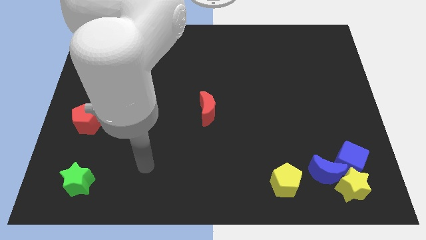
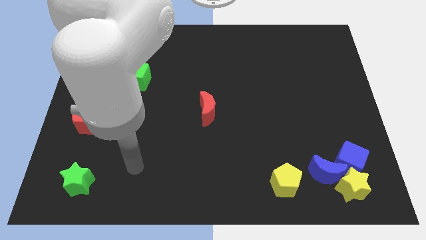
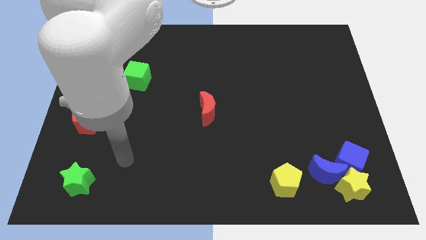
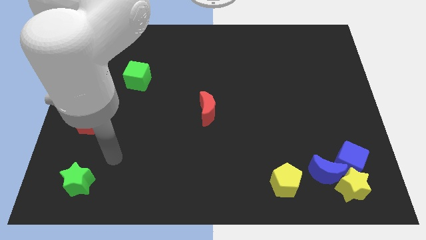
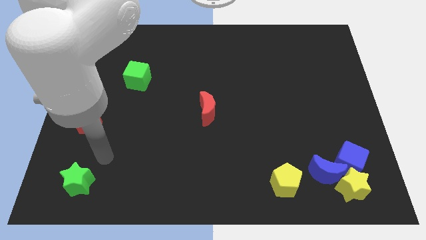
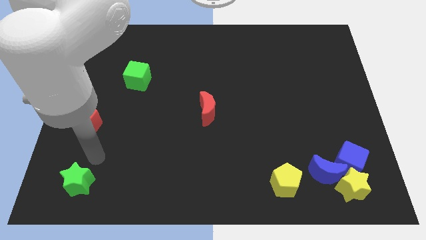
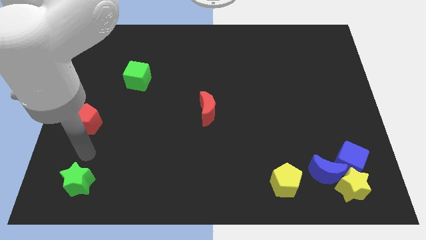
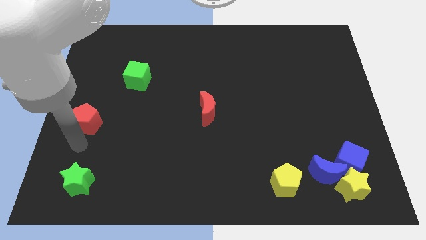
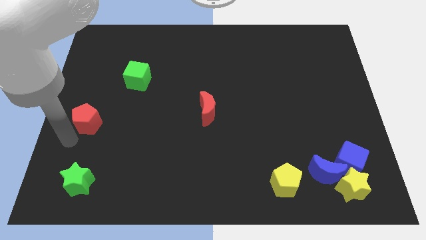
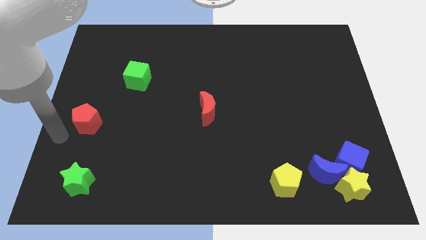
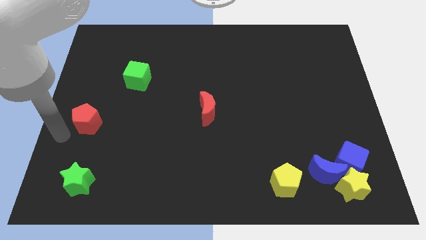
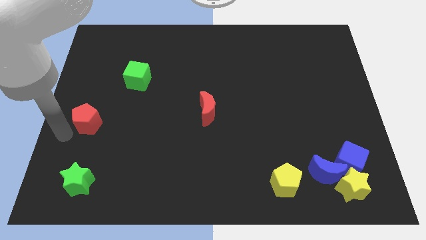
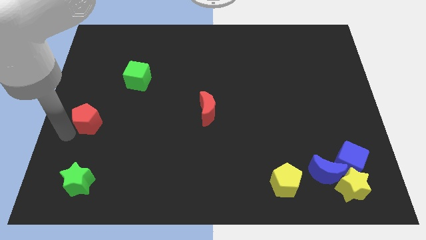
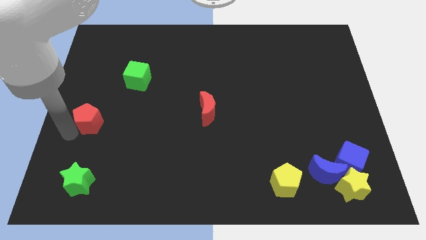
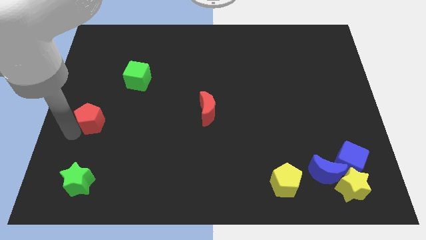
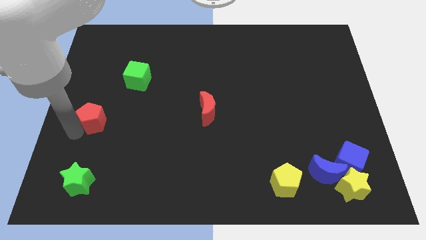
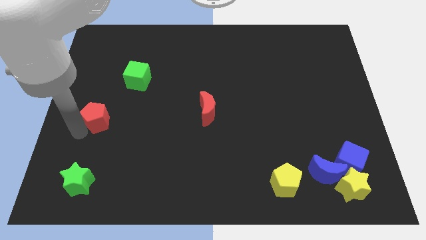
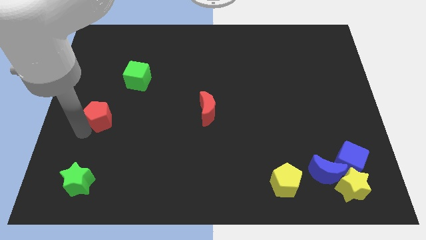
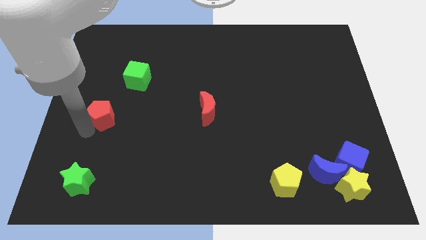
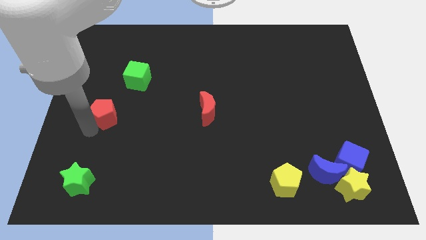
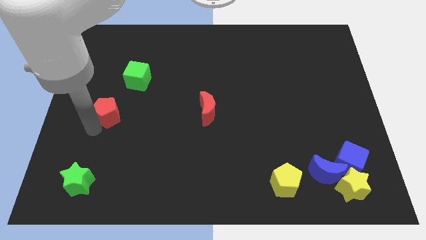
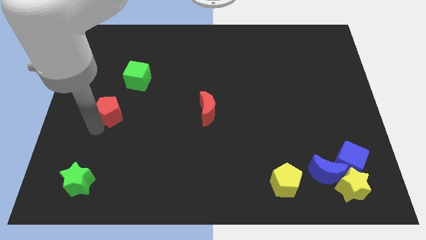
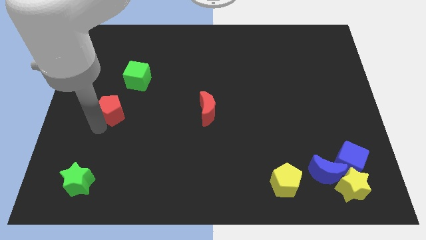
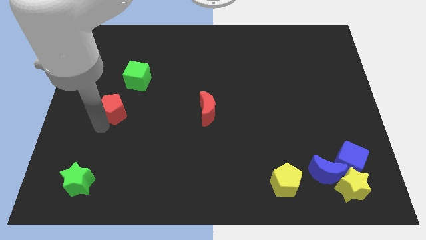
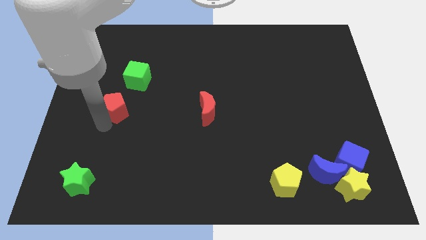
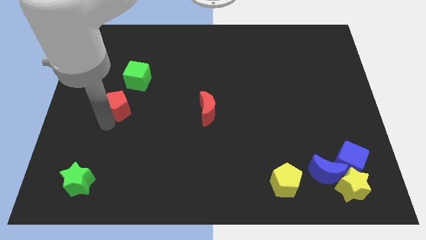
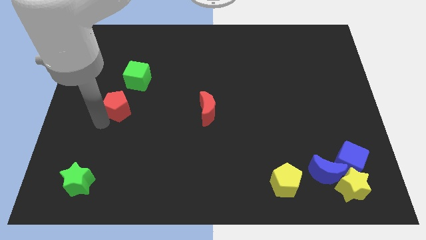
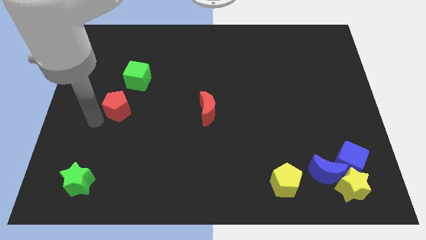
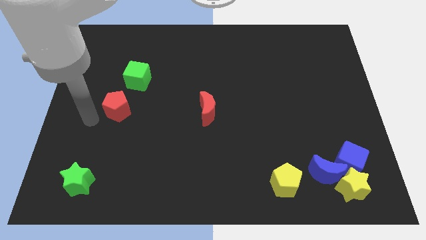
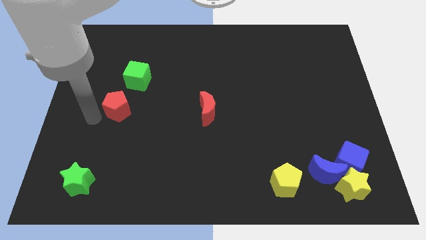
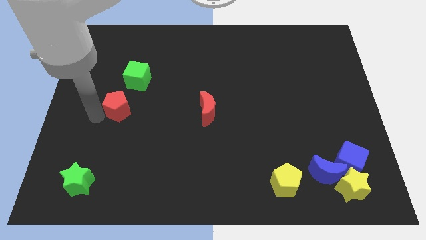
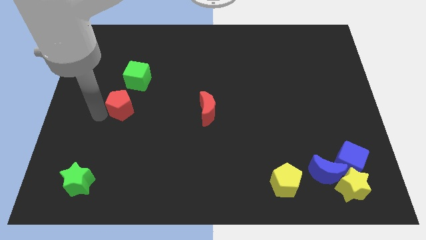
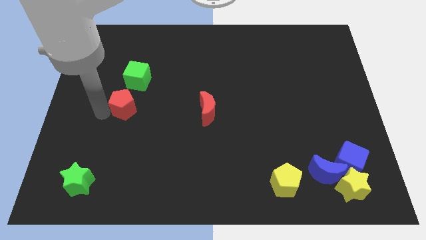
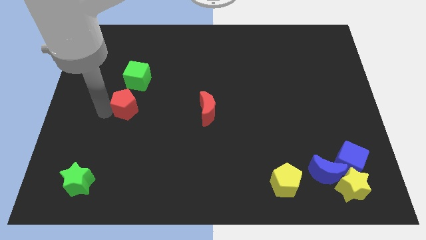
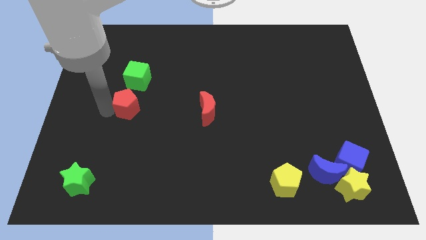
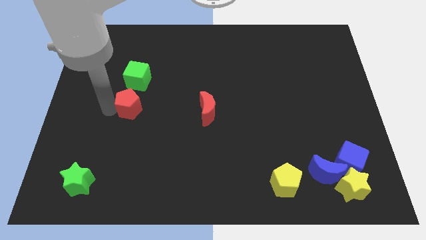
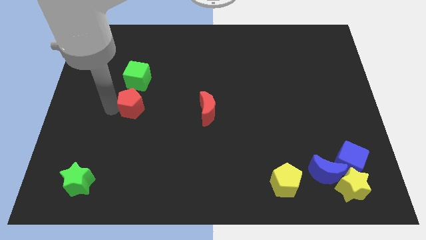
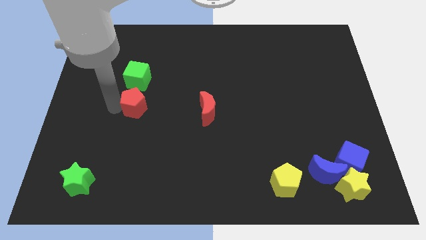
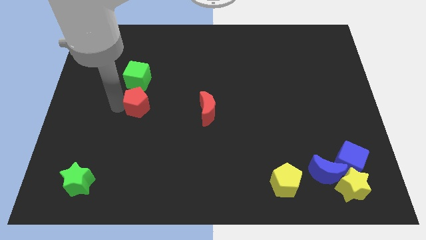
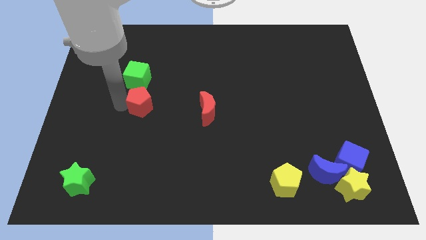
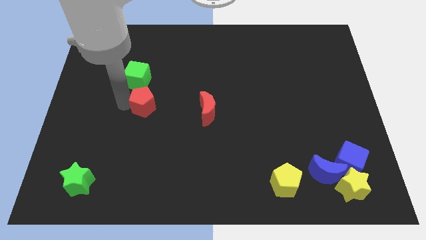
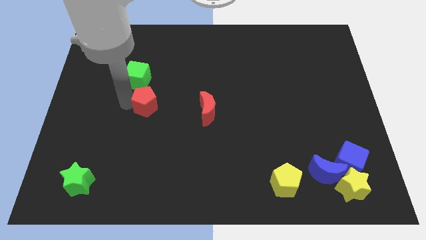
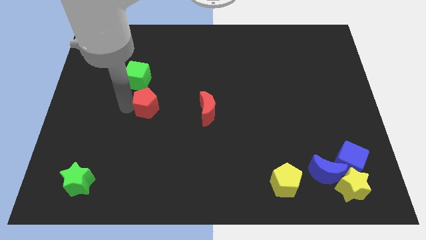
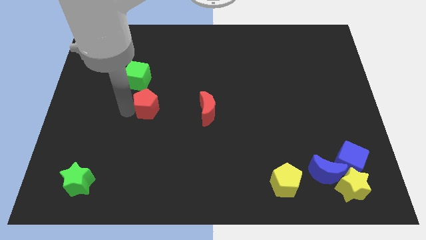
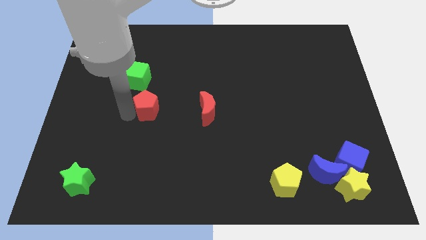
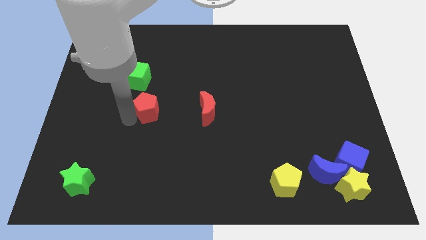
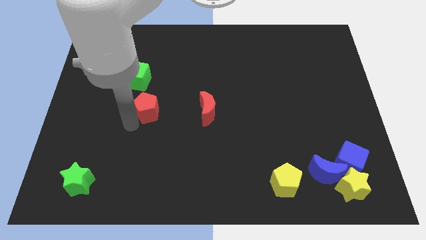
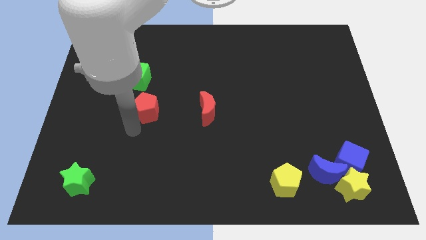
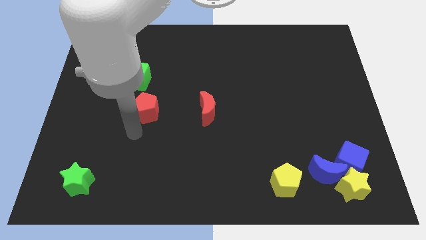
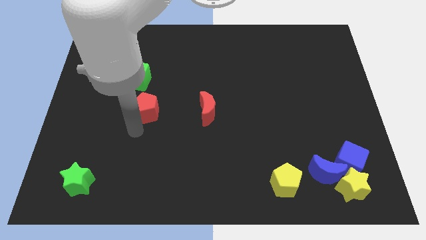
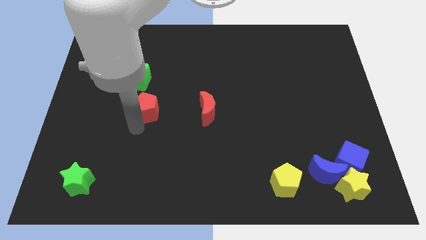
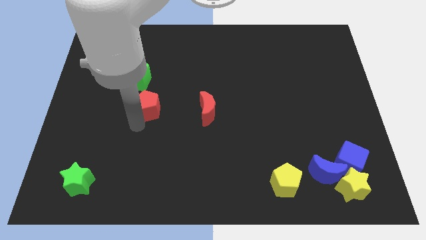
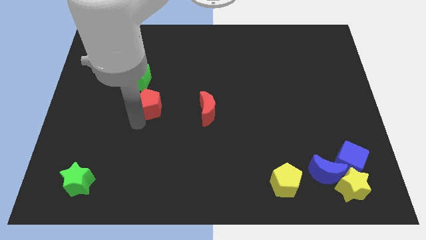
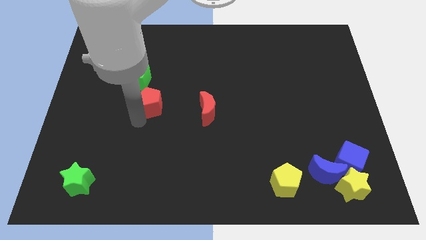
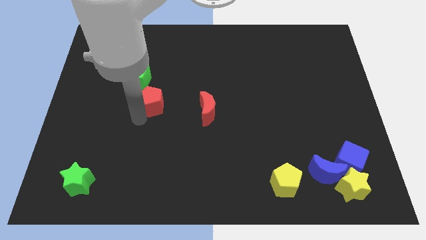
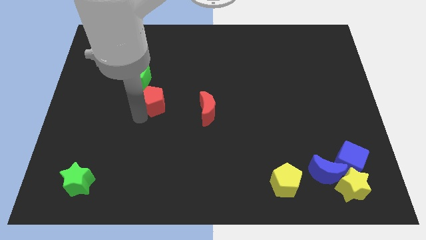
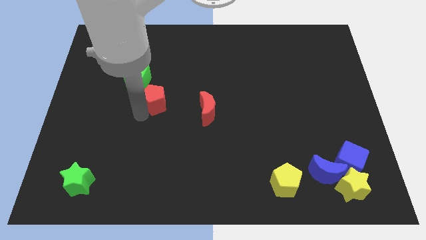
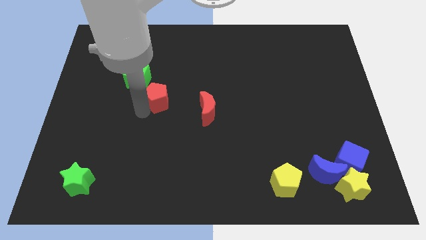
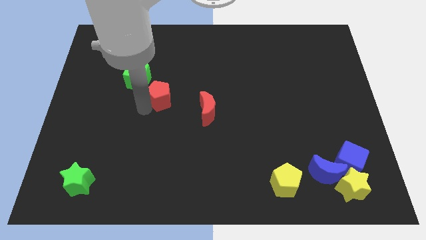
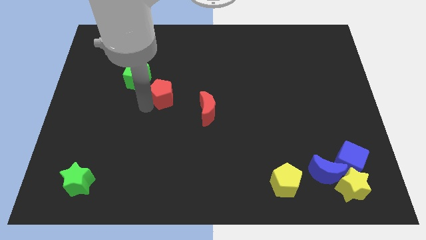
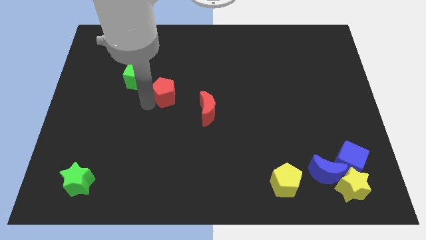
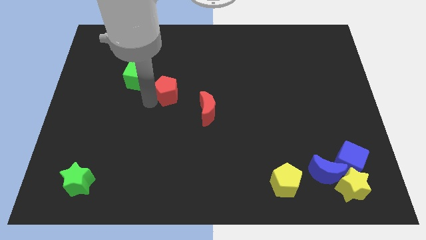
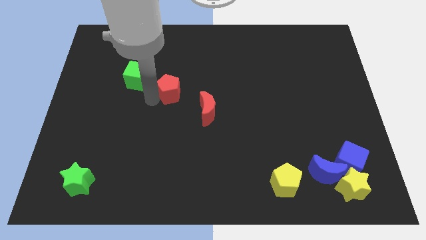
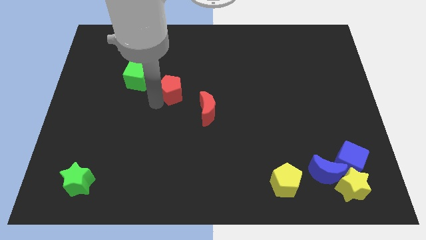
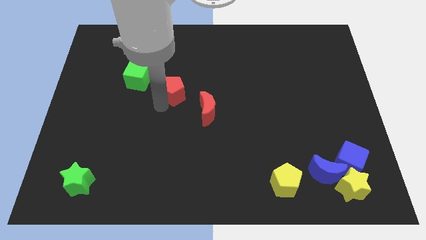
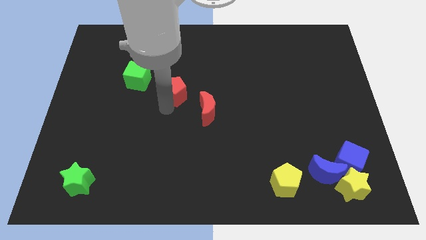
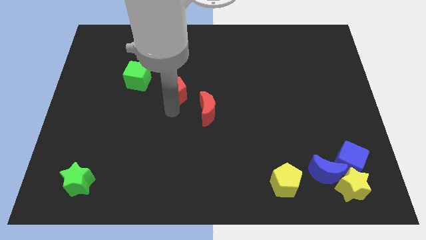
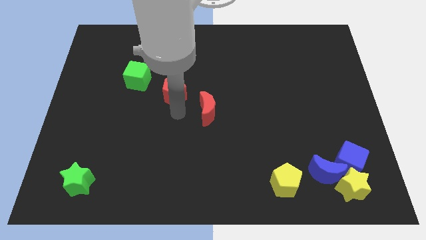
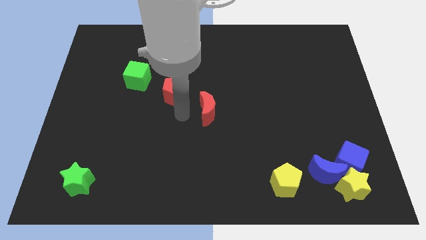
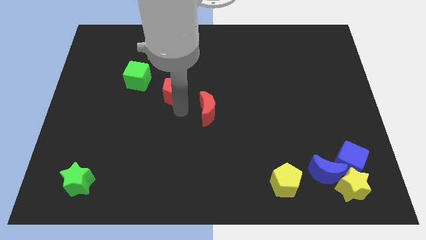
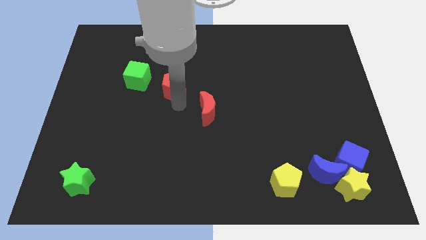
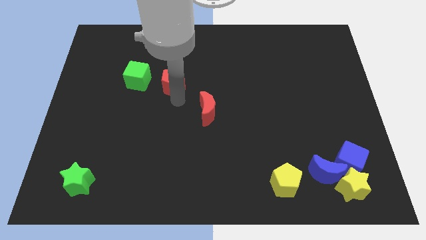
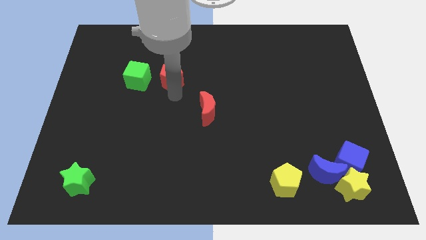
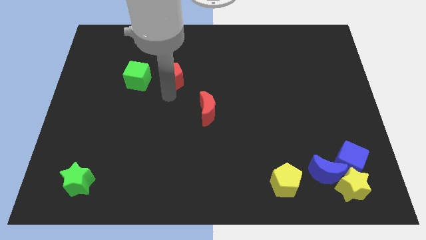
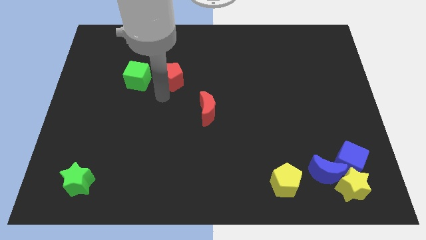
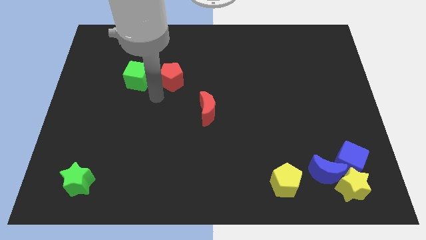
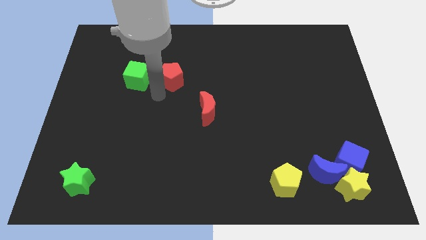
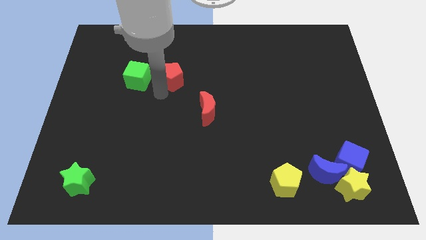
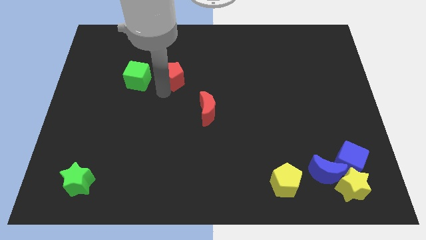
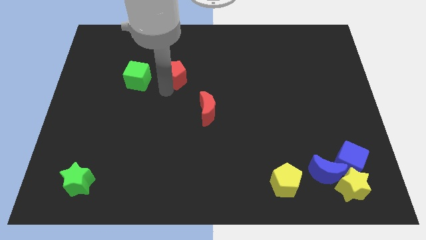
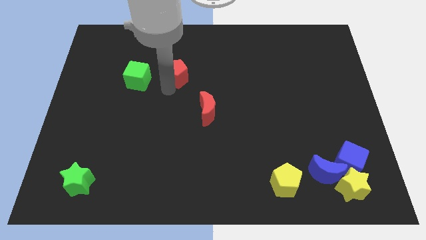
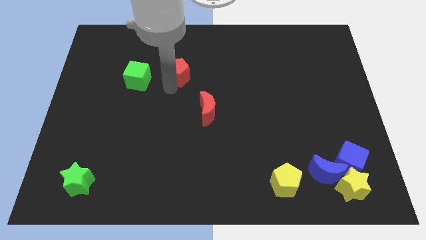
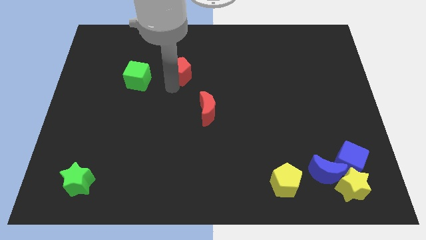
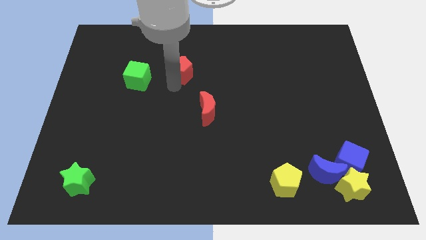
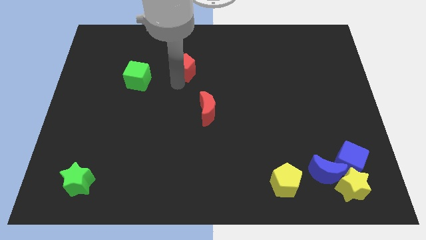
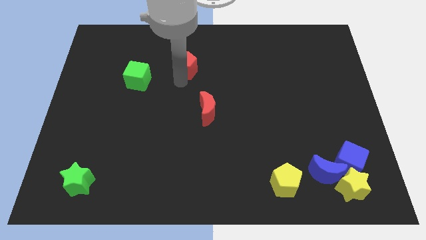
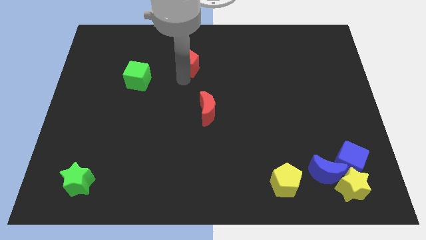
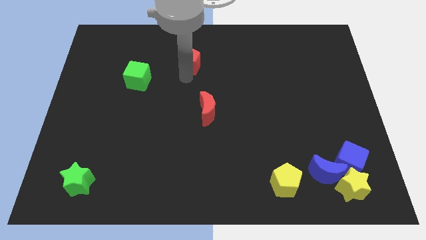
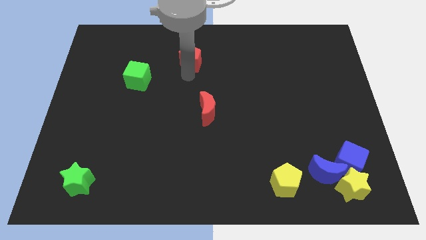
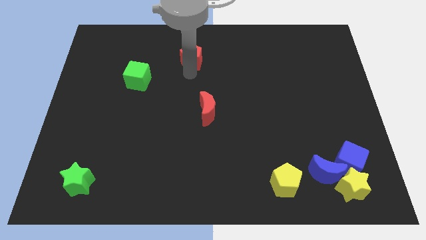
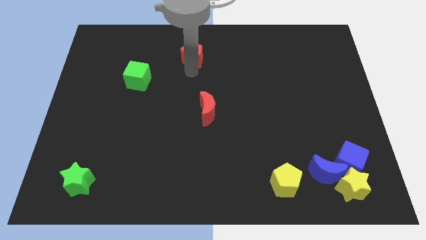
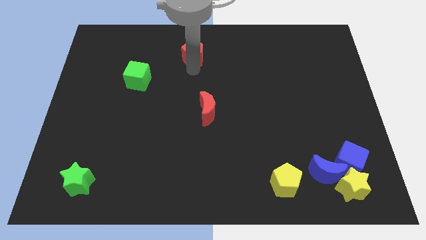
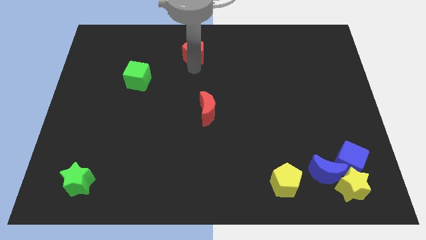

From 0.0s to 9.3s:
move the red pentagon to the towards your base
